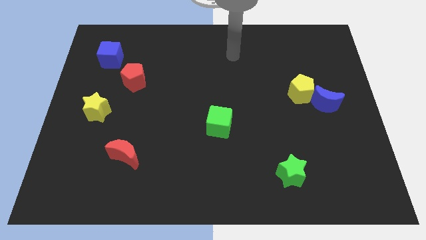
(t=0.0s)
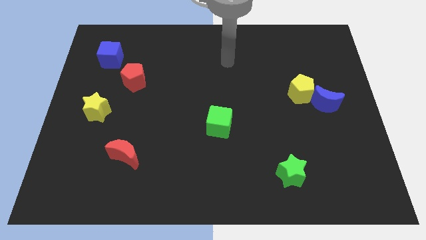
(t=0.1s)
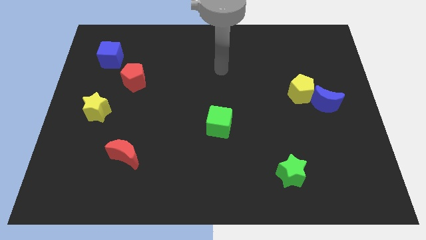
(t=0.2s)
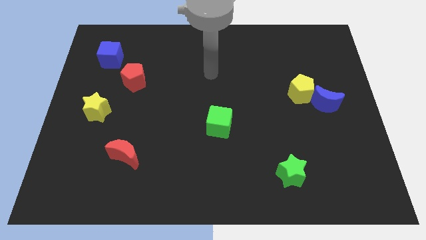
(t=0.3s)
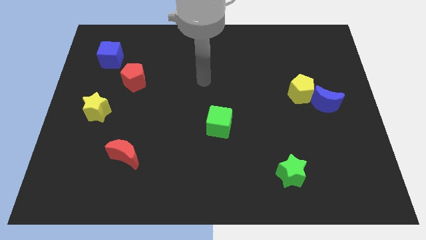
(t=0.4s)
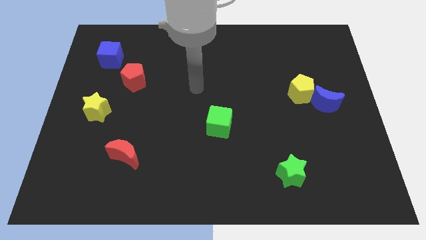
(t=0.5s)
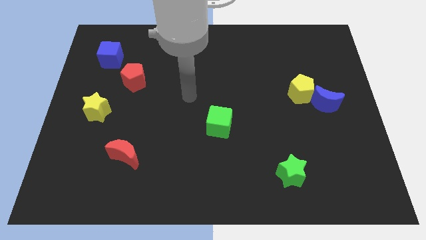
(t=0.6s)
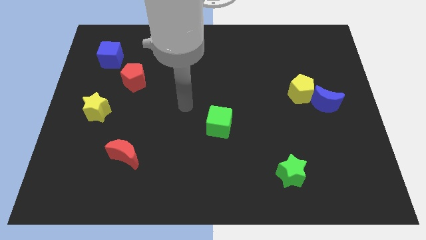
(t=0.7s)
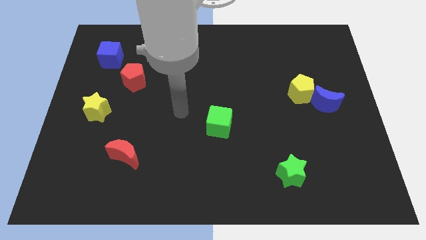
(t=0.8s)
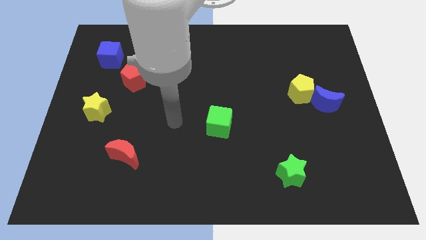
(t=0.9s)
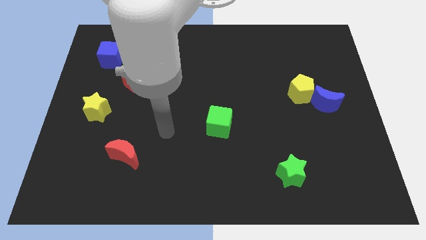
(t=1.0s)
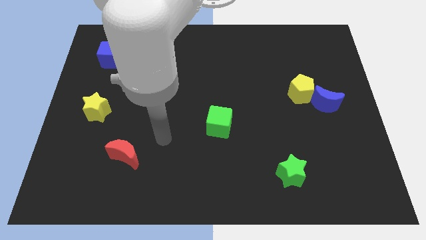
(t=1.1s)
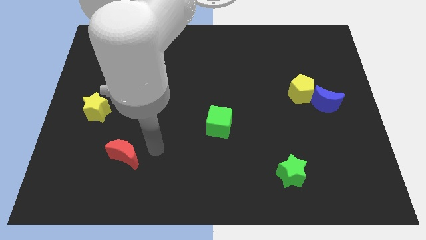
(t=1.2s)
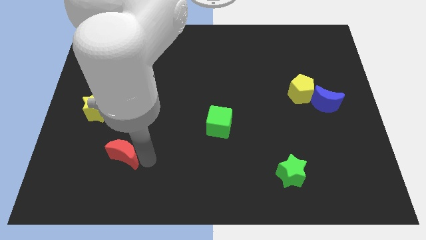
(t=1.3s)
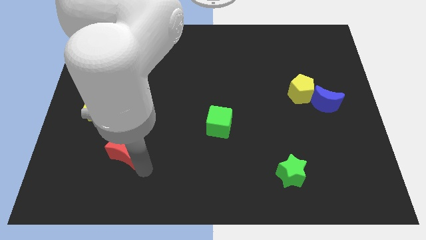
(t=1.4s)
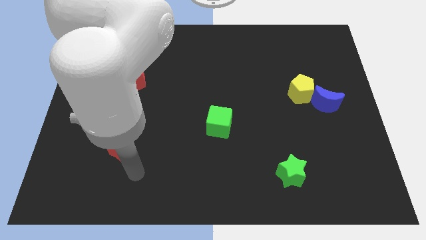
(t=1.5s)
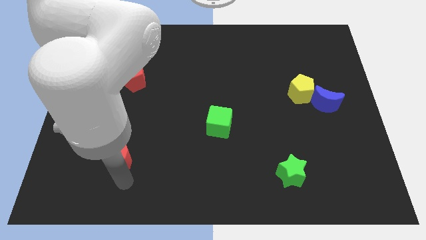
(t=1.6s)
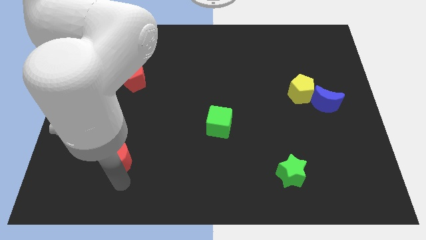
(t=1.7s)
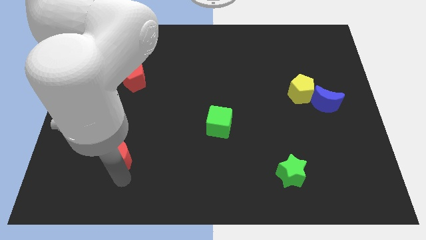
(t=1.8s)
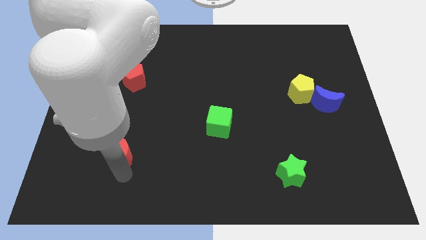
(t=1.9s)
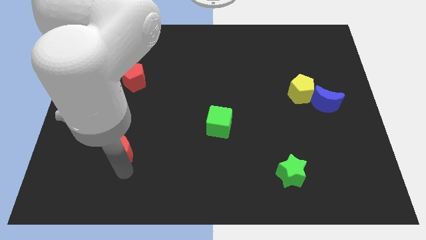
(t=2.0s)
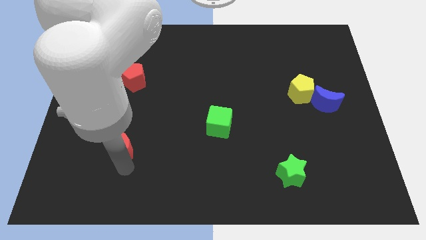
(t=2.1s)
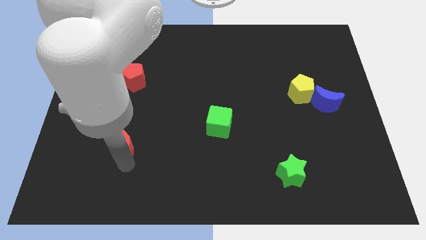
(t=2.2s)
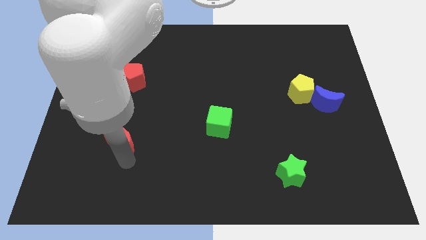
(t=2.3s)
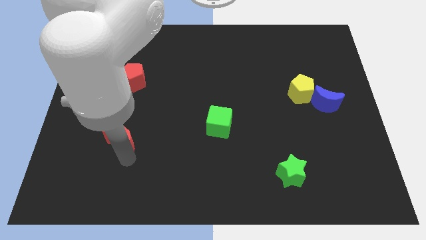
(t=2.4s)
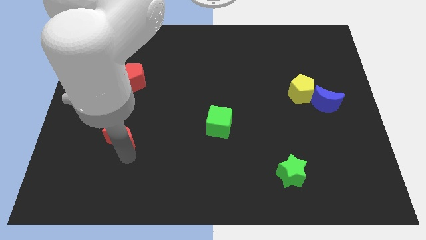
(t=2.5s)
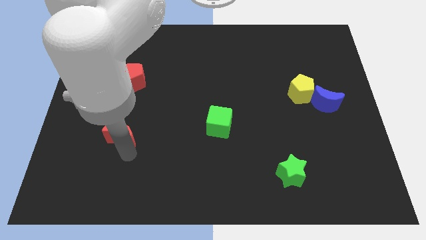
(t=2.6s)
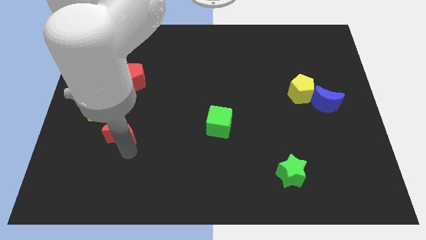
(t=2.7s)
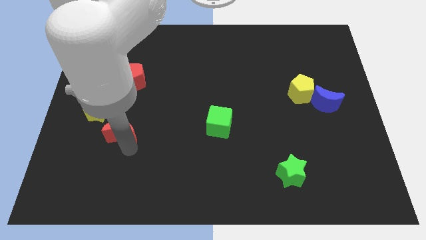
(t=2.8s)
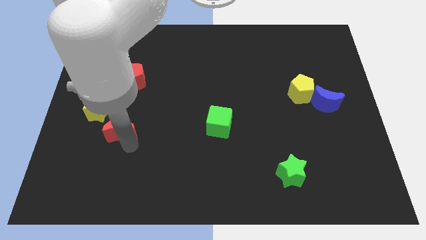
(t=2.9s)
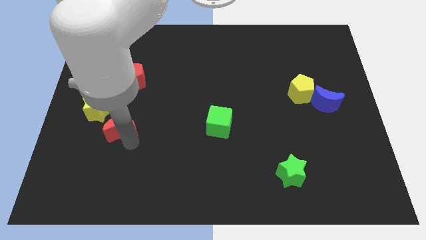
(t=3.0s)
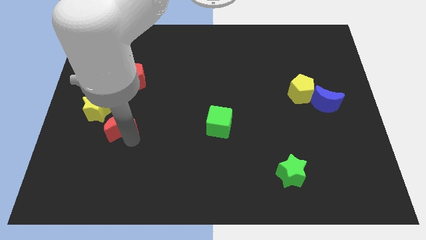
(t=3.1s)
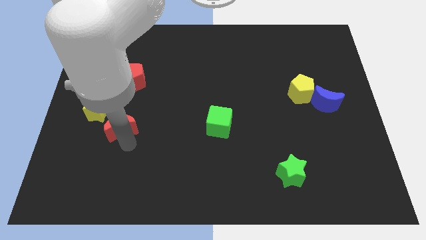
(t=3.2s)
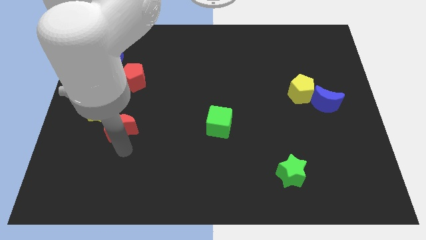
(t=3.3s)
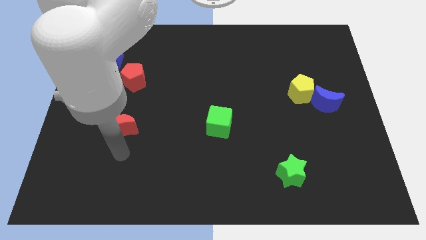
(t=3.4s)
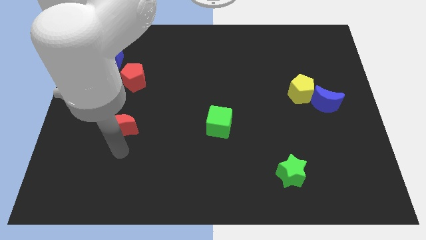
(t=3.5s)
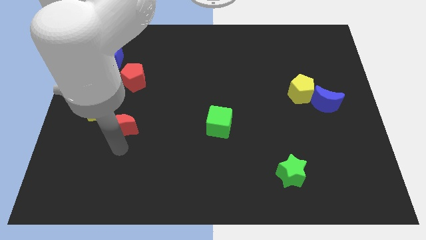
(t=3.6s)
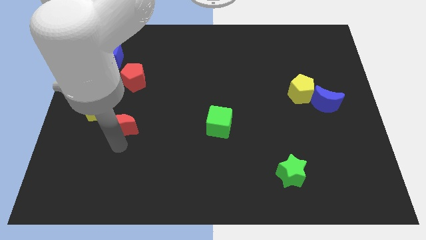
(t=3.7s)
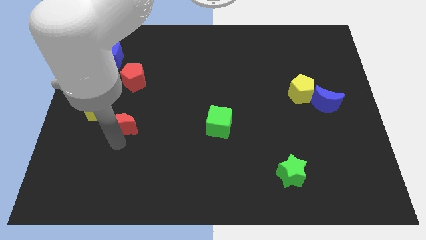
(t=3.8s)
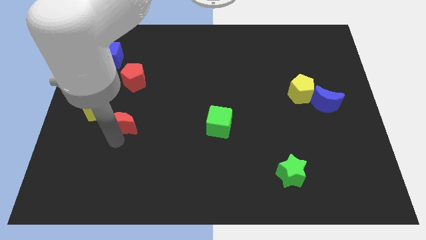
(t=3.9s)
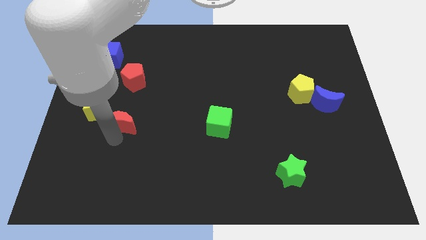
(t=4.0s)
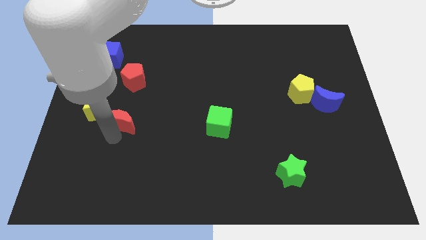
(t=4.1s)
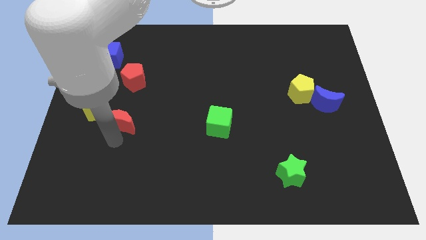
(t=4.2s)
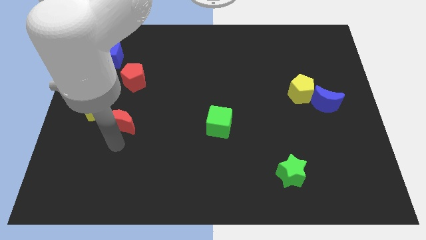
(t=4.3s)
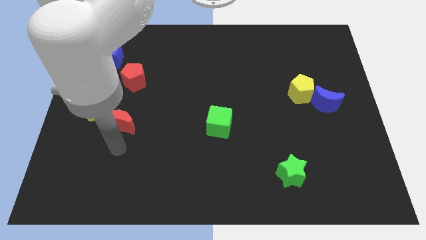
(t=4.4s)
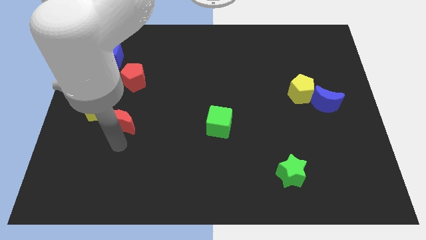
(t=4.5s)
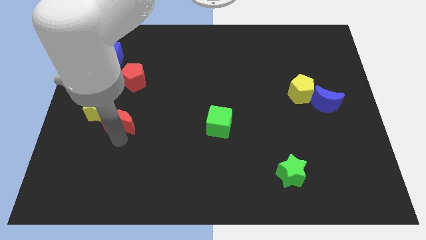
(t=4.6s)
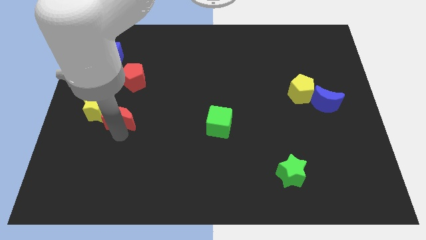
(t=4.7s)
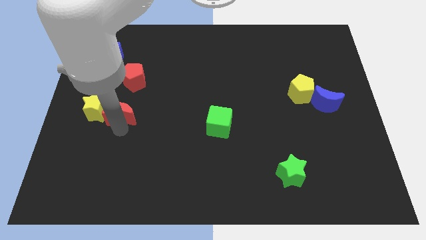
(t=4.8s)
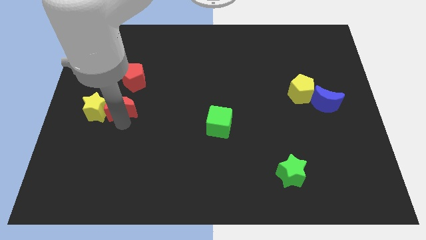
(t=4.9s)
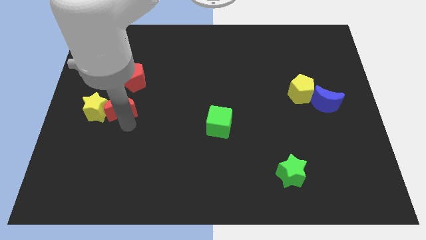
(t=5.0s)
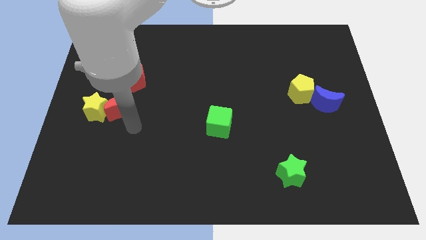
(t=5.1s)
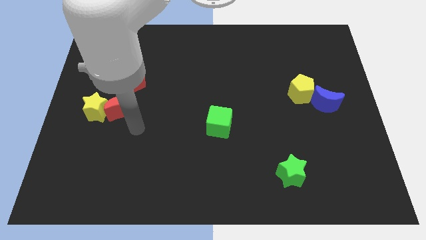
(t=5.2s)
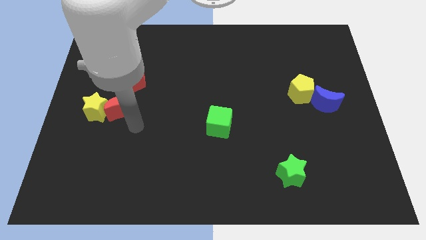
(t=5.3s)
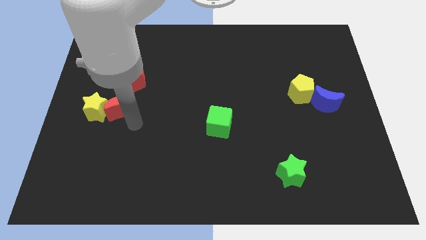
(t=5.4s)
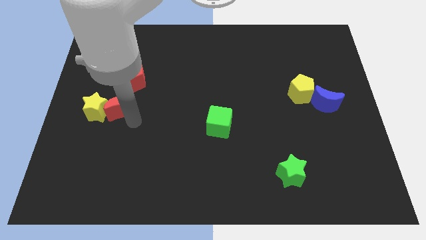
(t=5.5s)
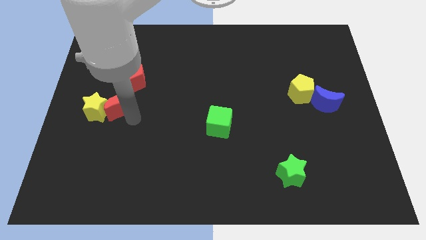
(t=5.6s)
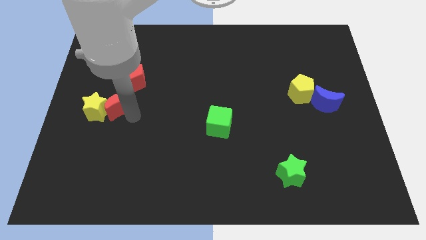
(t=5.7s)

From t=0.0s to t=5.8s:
move the red moon to the bottom left of the red pentagon

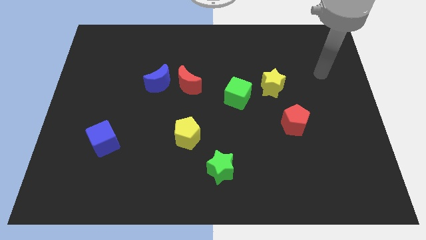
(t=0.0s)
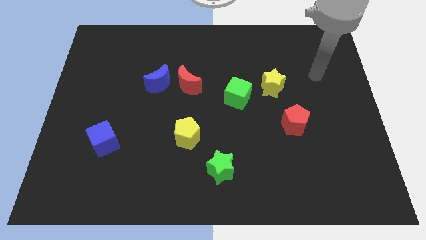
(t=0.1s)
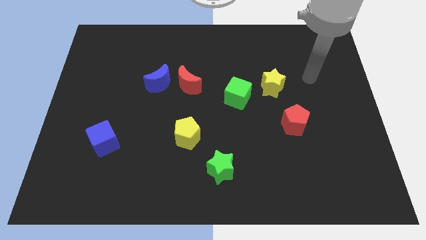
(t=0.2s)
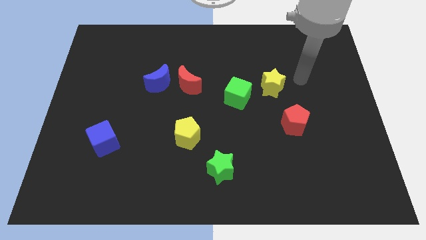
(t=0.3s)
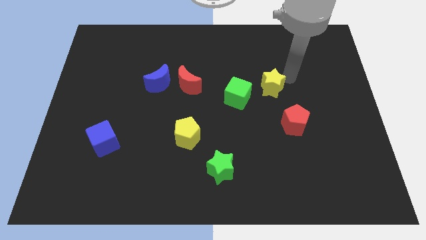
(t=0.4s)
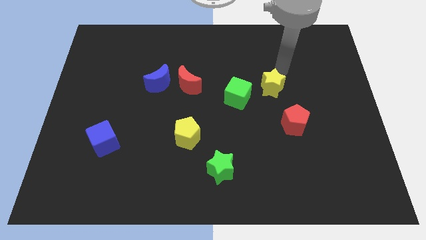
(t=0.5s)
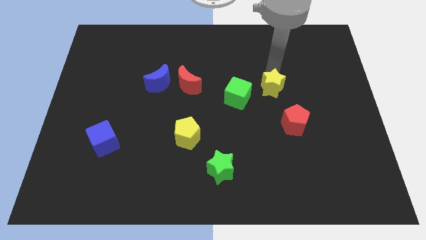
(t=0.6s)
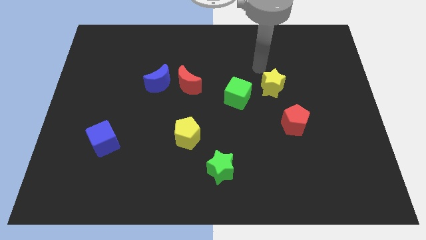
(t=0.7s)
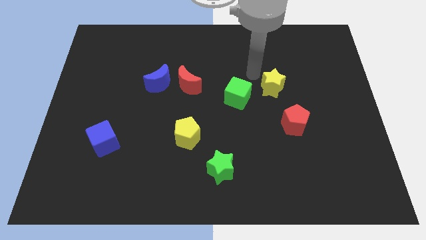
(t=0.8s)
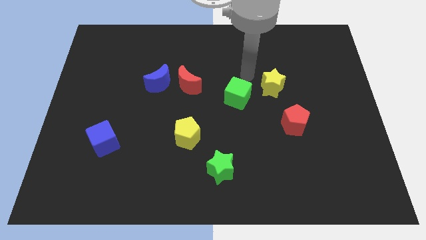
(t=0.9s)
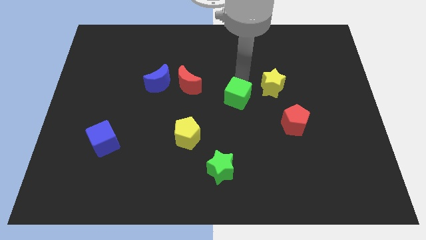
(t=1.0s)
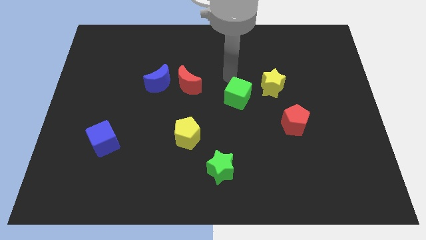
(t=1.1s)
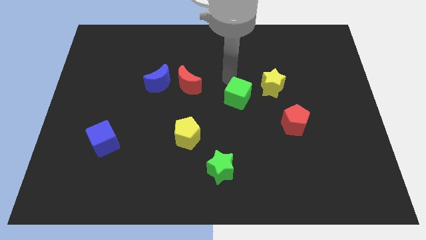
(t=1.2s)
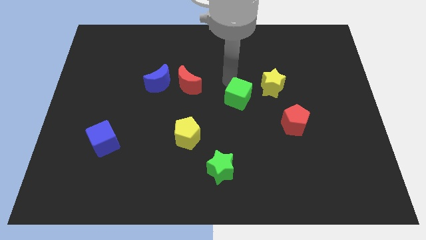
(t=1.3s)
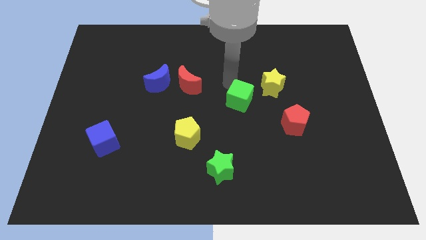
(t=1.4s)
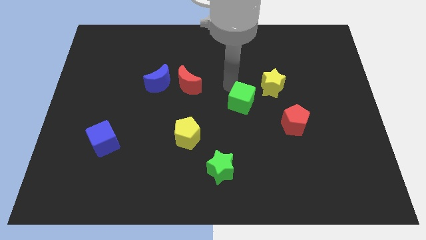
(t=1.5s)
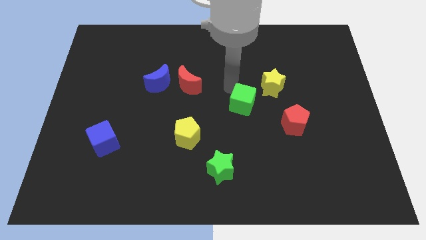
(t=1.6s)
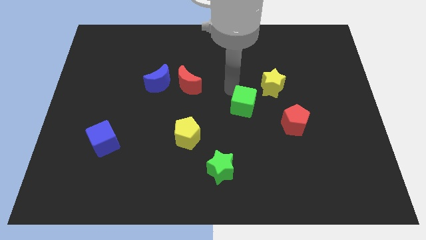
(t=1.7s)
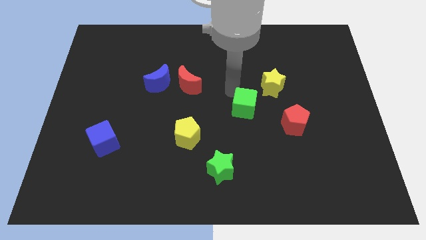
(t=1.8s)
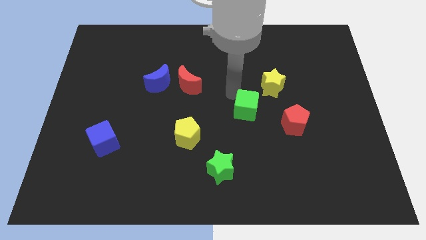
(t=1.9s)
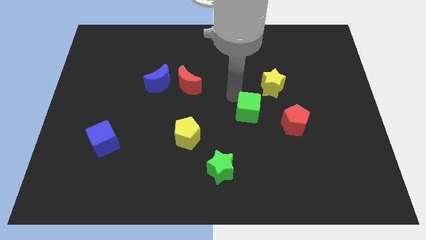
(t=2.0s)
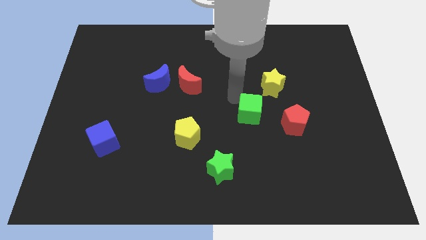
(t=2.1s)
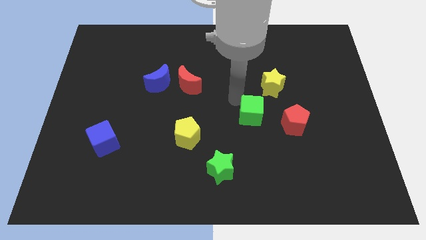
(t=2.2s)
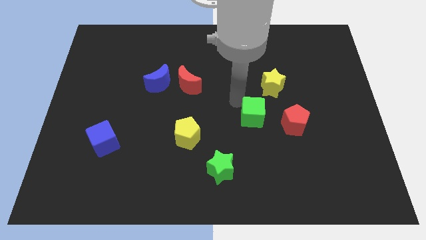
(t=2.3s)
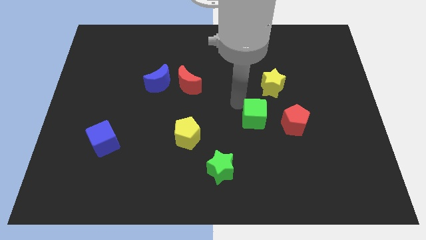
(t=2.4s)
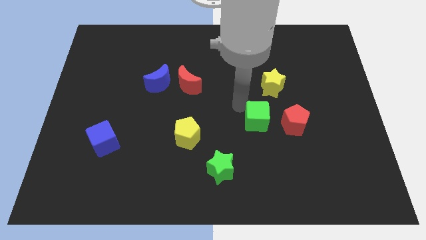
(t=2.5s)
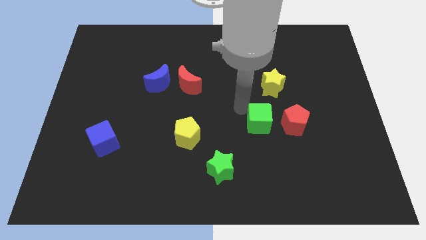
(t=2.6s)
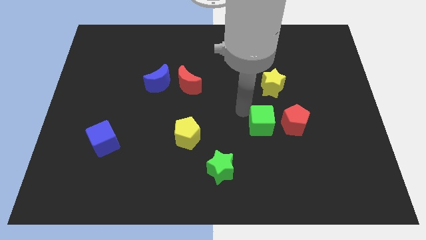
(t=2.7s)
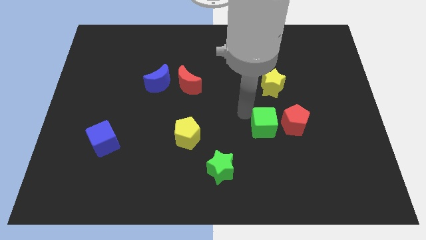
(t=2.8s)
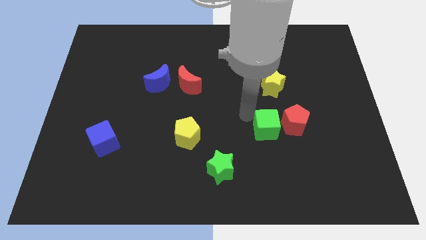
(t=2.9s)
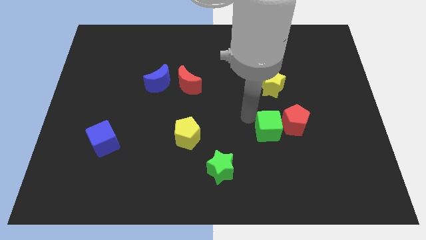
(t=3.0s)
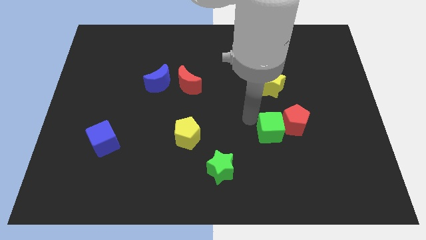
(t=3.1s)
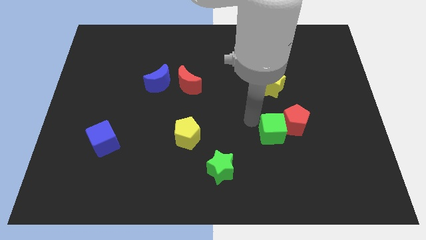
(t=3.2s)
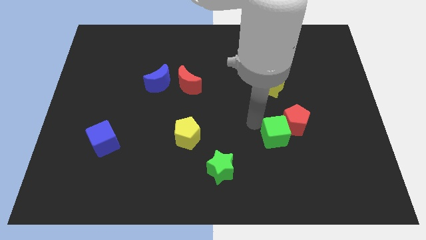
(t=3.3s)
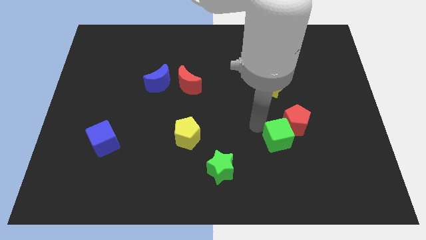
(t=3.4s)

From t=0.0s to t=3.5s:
move the green cube below the red pentagon
